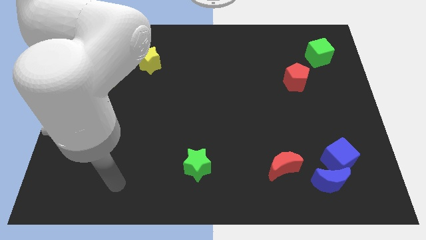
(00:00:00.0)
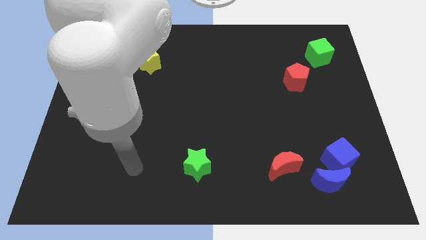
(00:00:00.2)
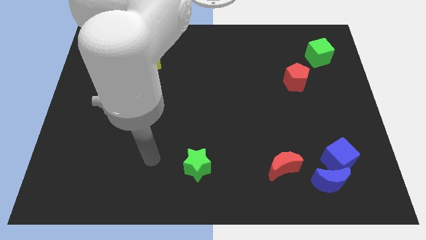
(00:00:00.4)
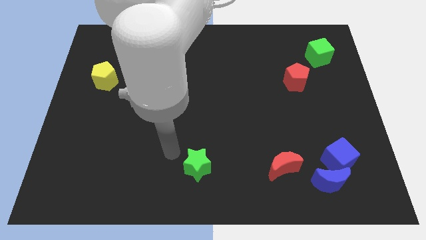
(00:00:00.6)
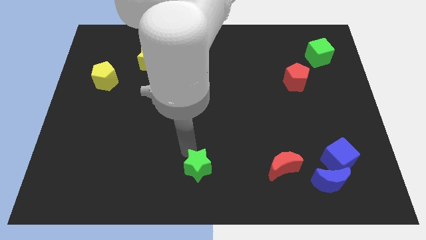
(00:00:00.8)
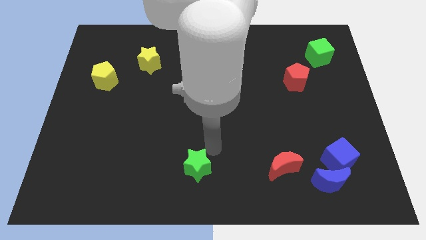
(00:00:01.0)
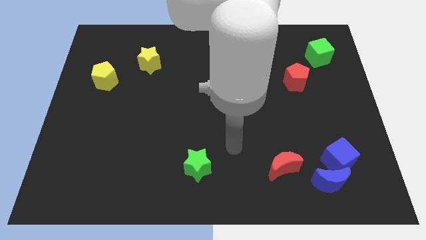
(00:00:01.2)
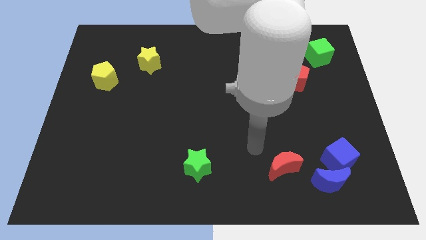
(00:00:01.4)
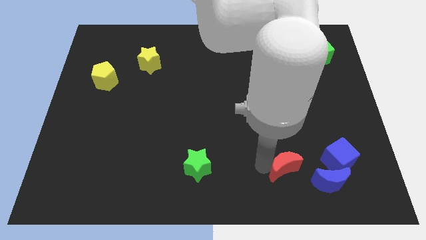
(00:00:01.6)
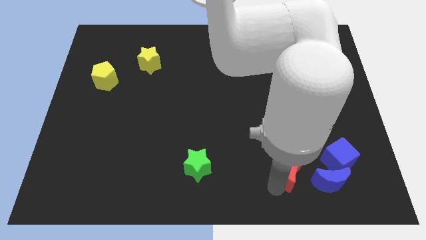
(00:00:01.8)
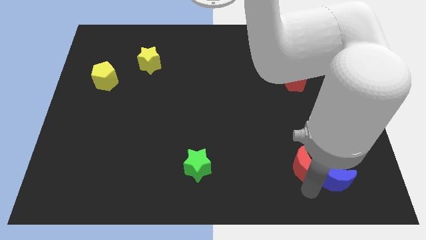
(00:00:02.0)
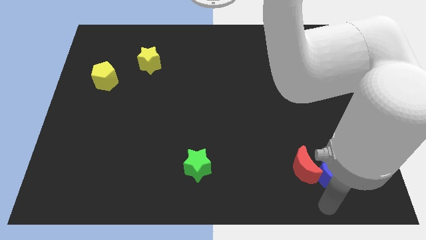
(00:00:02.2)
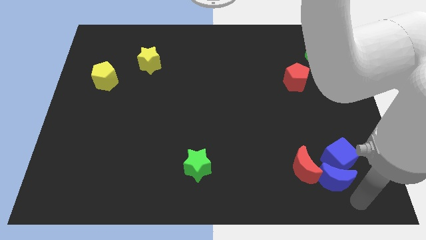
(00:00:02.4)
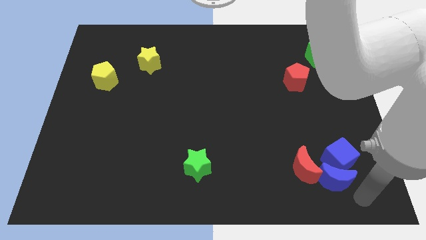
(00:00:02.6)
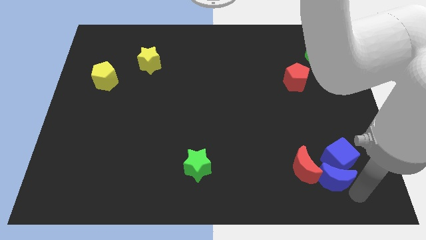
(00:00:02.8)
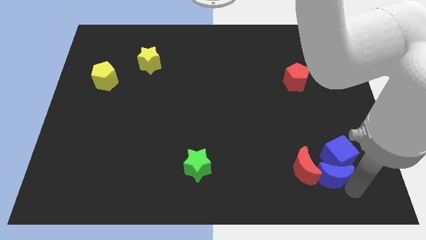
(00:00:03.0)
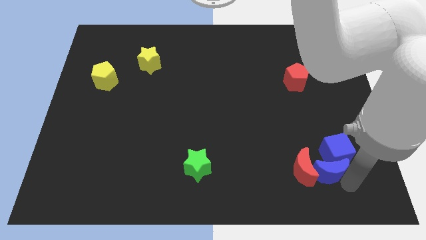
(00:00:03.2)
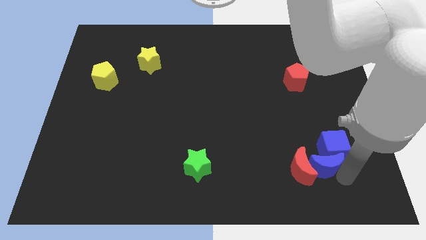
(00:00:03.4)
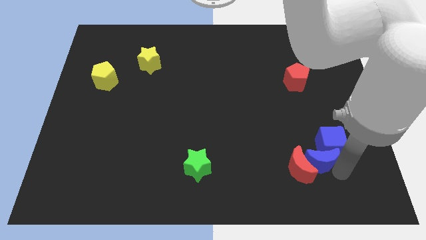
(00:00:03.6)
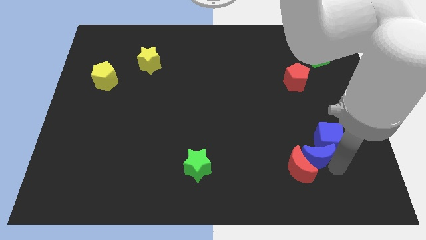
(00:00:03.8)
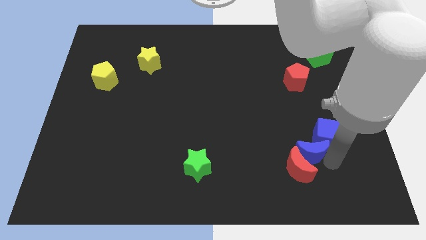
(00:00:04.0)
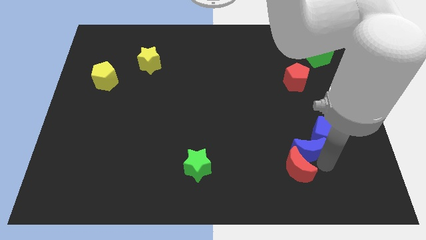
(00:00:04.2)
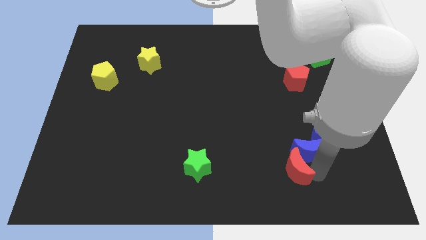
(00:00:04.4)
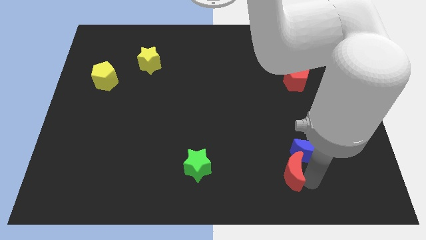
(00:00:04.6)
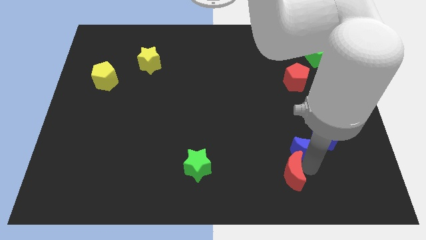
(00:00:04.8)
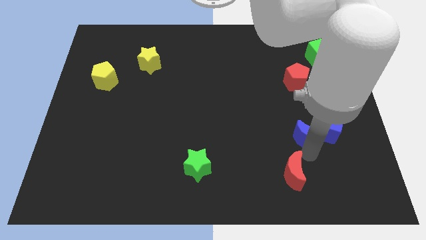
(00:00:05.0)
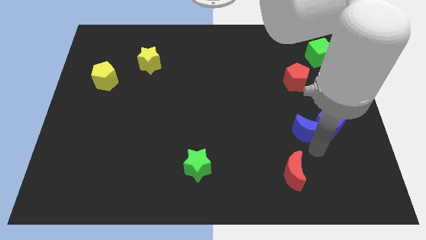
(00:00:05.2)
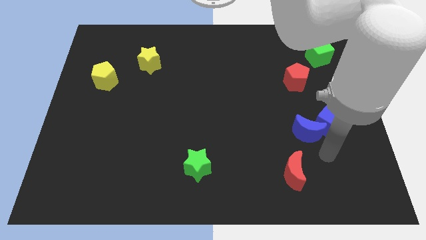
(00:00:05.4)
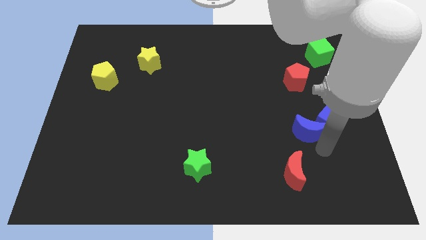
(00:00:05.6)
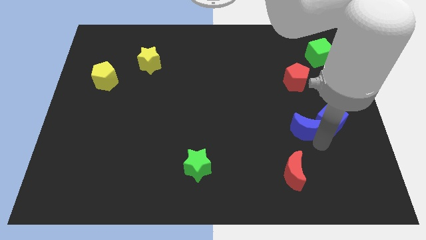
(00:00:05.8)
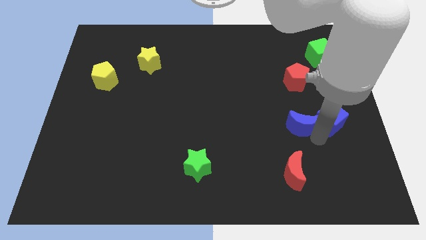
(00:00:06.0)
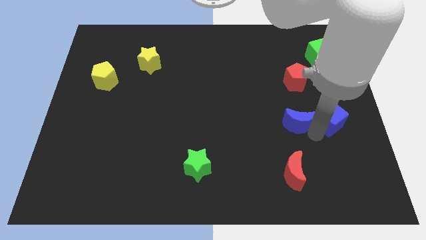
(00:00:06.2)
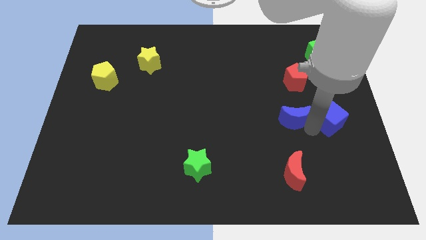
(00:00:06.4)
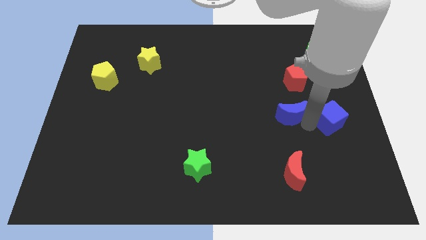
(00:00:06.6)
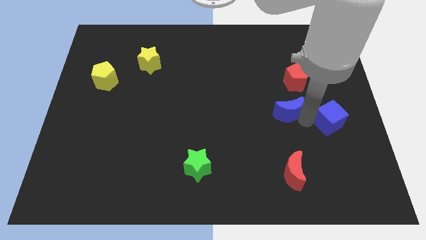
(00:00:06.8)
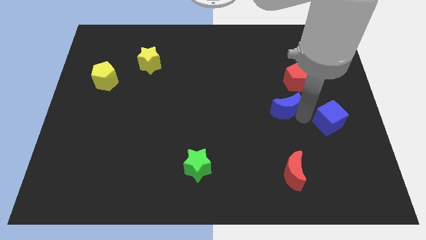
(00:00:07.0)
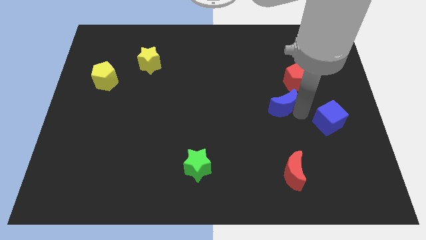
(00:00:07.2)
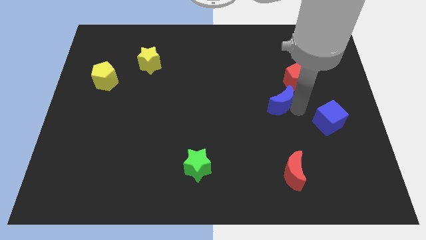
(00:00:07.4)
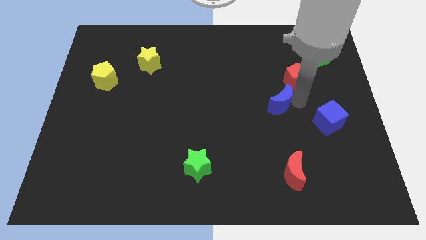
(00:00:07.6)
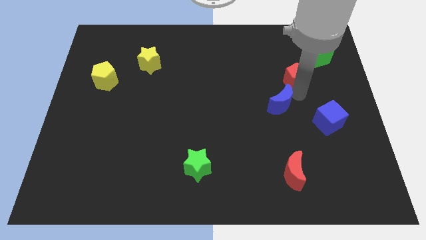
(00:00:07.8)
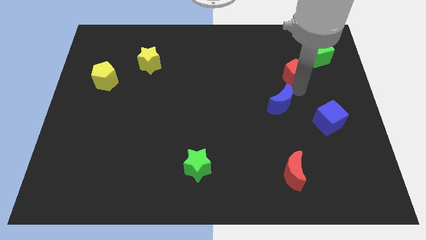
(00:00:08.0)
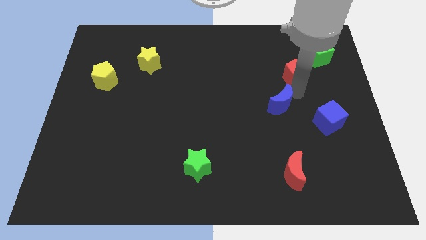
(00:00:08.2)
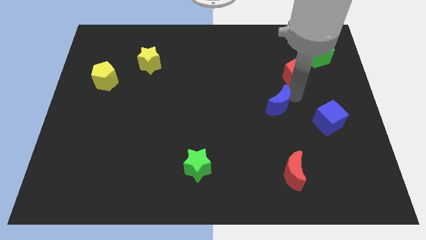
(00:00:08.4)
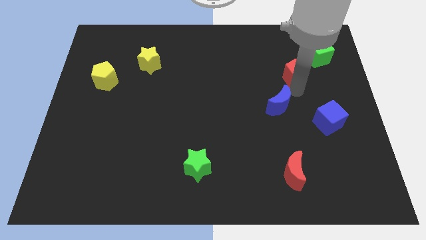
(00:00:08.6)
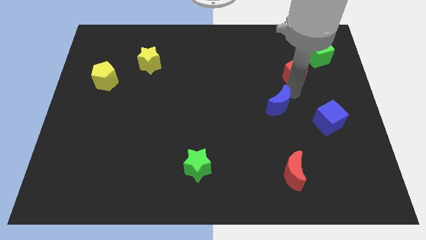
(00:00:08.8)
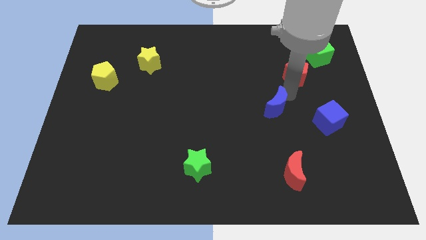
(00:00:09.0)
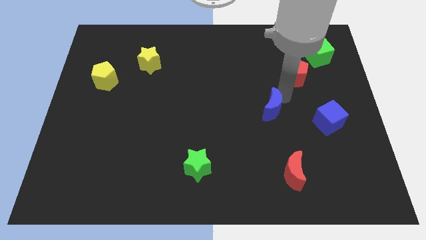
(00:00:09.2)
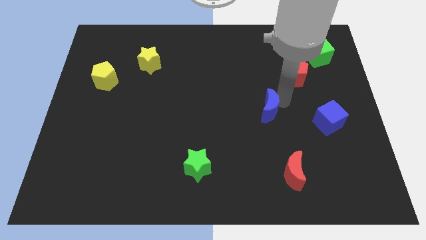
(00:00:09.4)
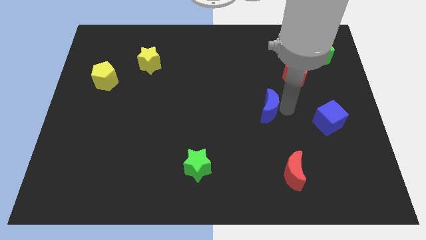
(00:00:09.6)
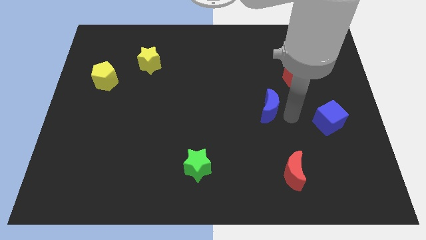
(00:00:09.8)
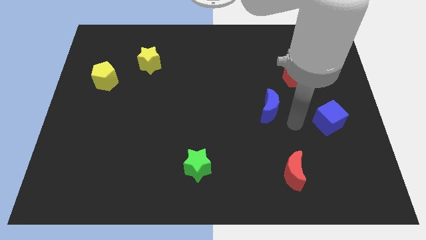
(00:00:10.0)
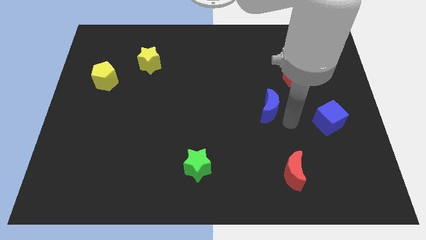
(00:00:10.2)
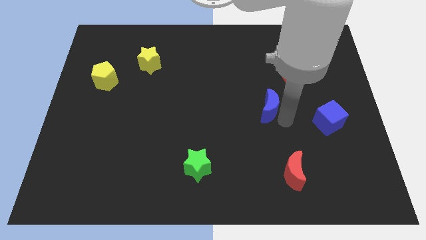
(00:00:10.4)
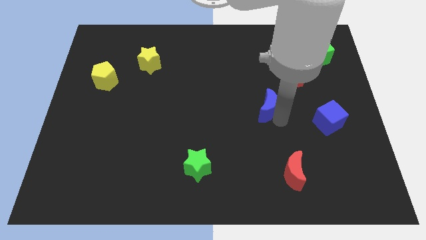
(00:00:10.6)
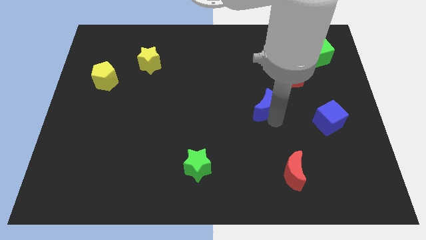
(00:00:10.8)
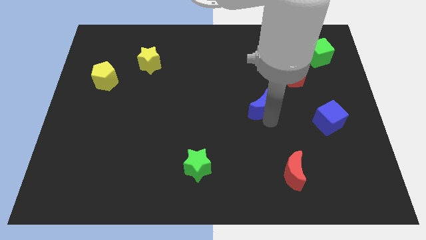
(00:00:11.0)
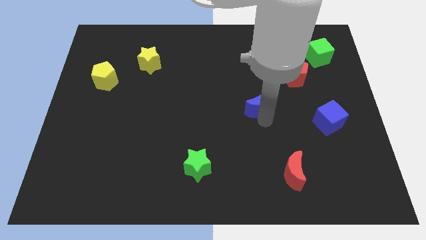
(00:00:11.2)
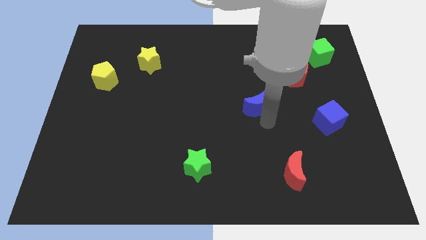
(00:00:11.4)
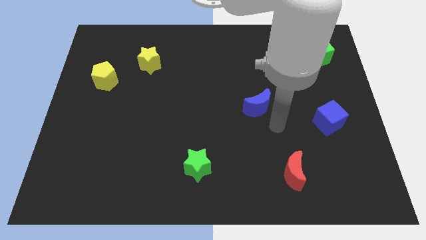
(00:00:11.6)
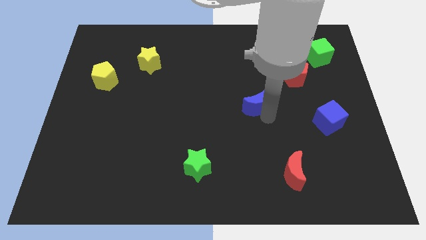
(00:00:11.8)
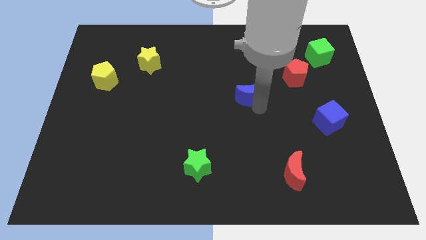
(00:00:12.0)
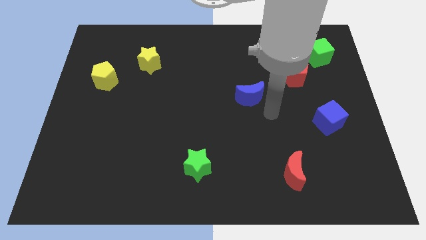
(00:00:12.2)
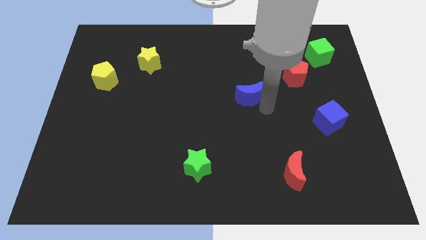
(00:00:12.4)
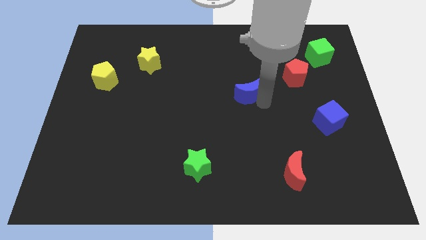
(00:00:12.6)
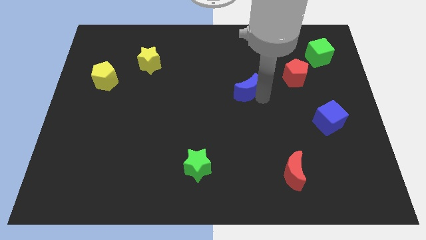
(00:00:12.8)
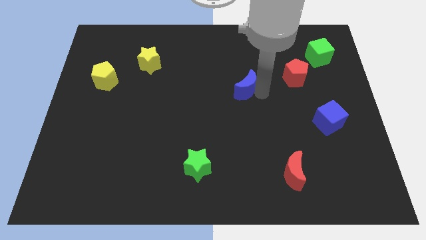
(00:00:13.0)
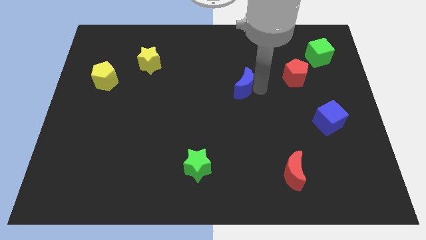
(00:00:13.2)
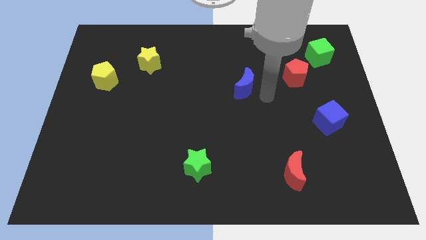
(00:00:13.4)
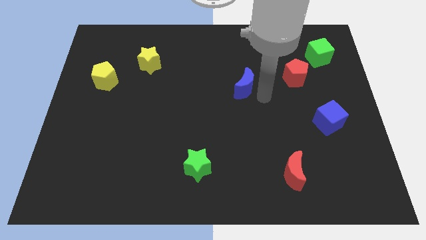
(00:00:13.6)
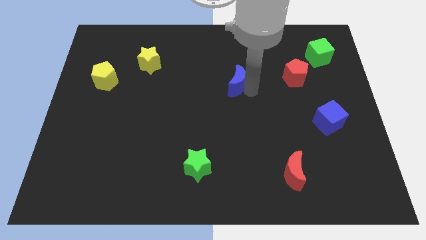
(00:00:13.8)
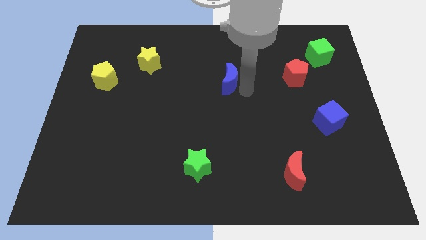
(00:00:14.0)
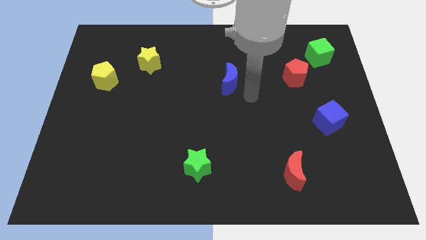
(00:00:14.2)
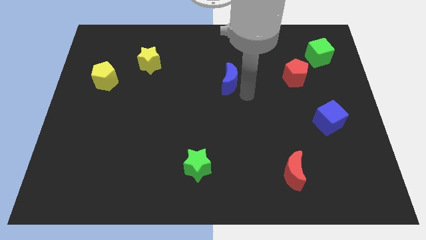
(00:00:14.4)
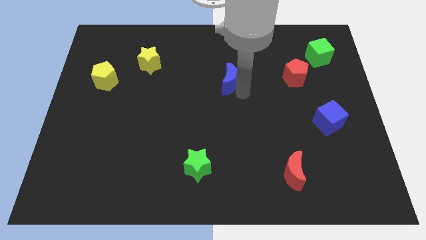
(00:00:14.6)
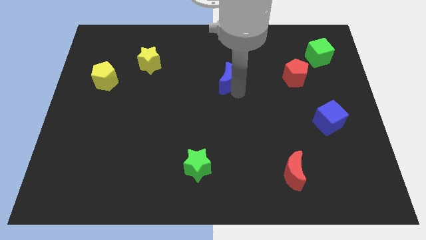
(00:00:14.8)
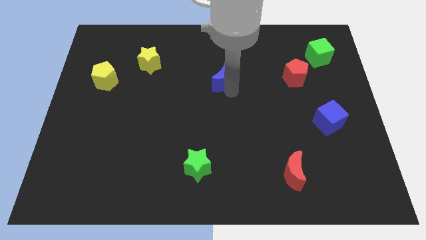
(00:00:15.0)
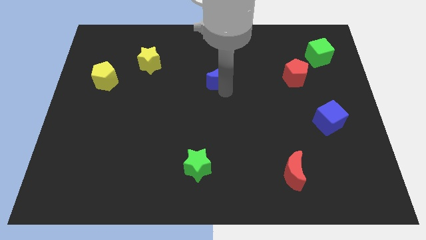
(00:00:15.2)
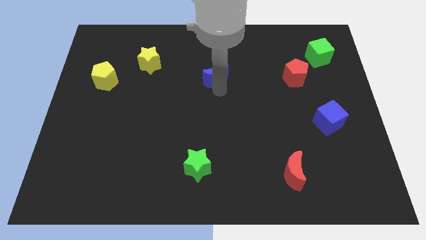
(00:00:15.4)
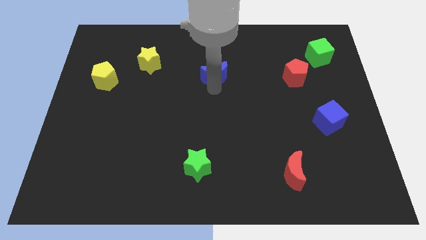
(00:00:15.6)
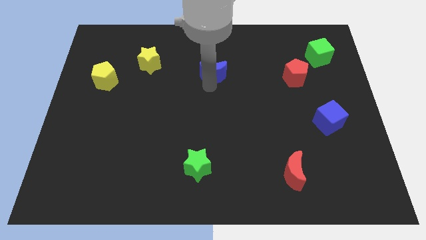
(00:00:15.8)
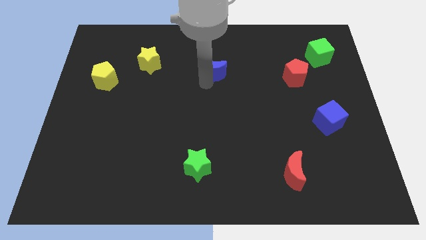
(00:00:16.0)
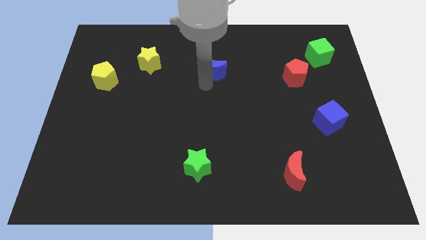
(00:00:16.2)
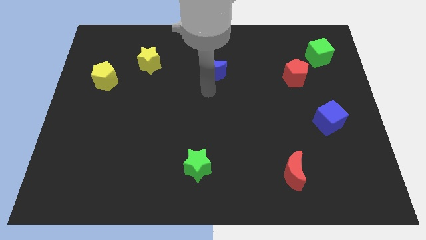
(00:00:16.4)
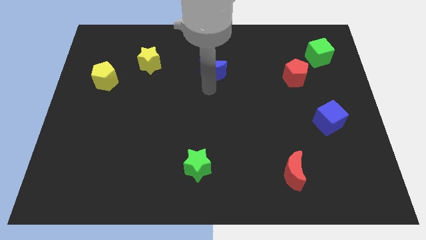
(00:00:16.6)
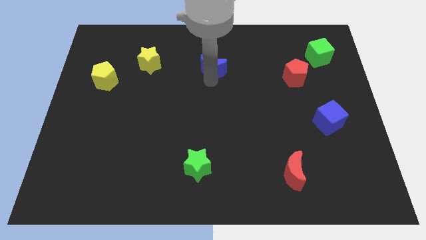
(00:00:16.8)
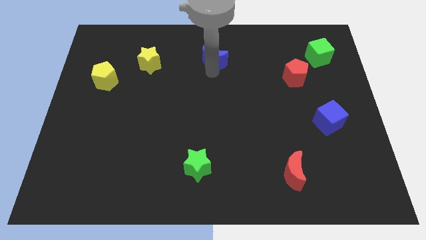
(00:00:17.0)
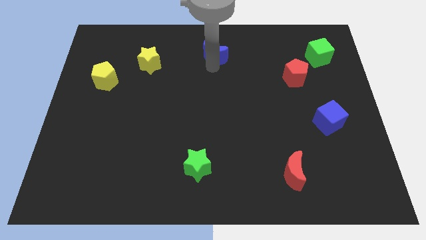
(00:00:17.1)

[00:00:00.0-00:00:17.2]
slide the blue moon to the top
